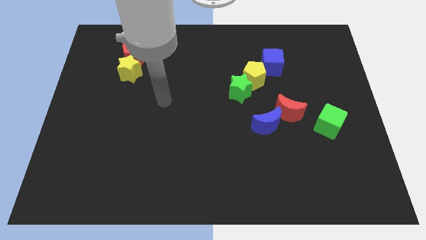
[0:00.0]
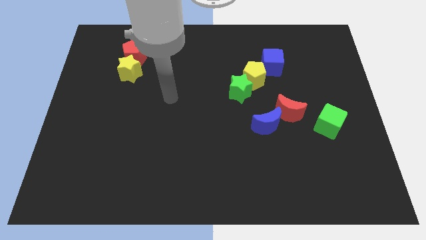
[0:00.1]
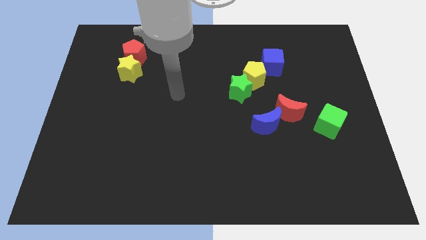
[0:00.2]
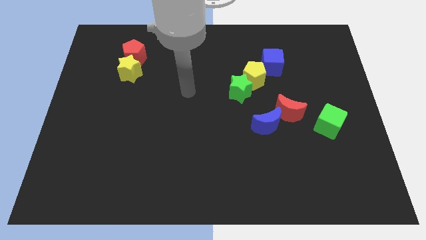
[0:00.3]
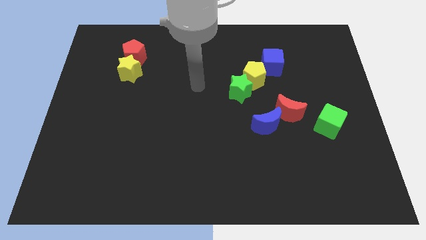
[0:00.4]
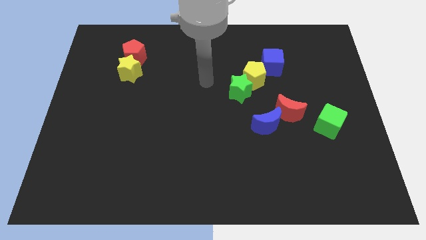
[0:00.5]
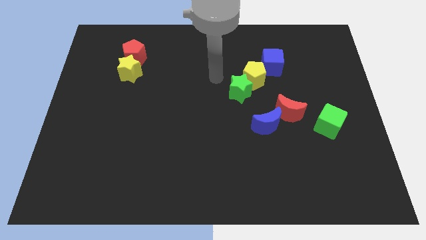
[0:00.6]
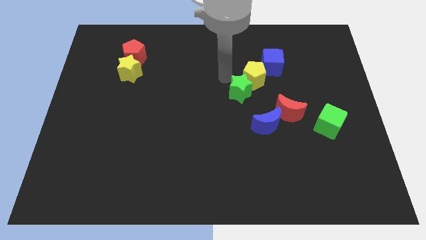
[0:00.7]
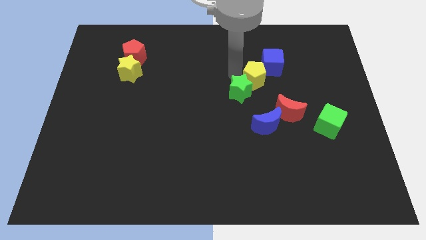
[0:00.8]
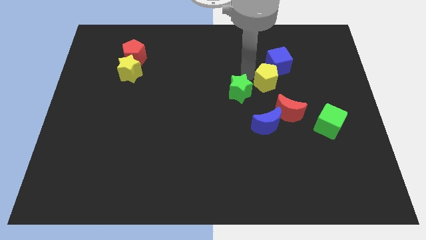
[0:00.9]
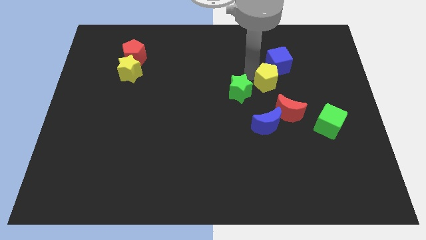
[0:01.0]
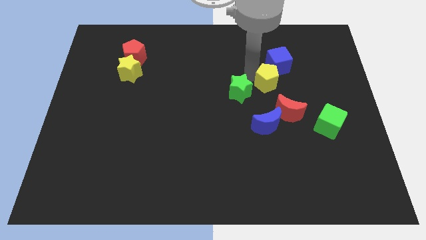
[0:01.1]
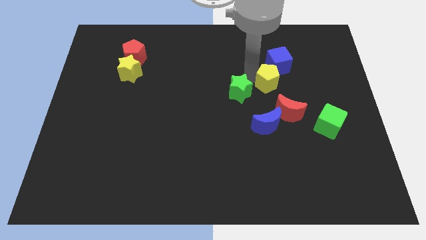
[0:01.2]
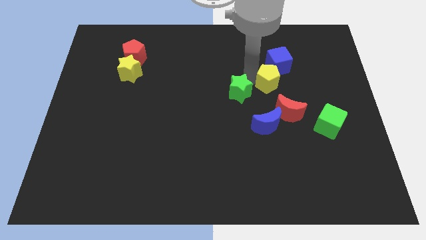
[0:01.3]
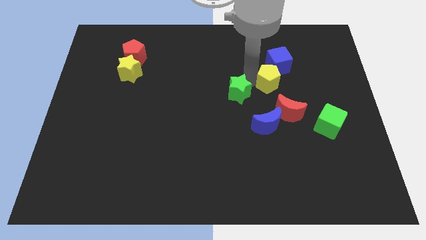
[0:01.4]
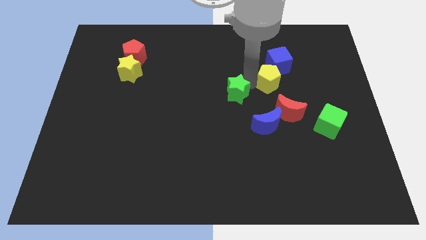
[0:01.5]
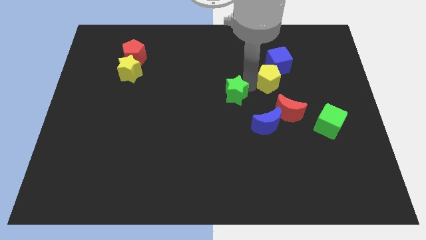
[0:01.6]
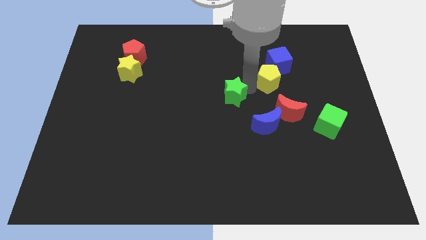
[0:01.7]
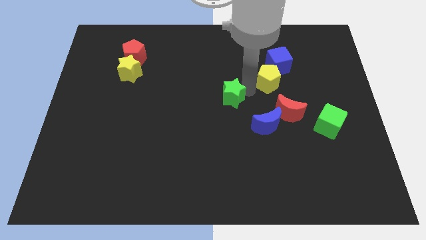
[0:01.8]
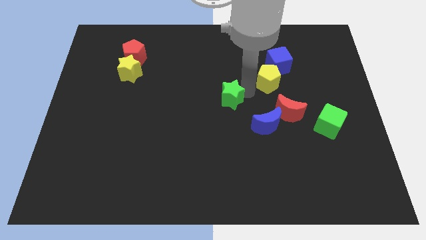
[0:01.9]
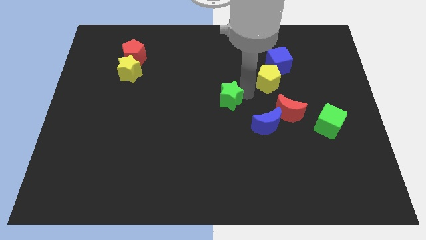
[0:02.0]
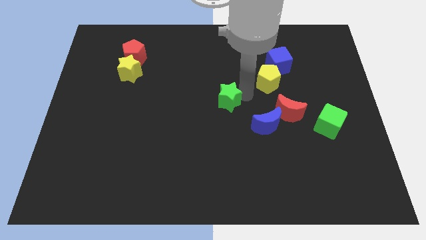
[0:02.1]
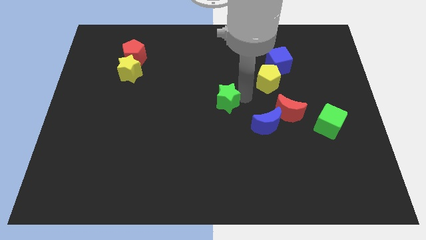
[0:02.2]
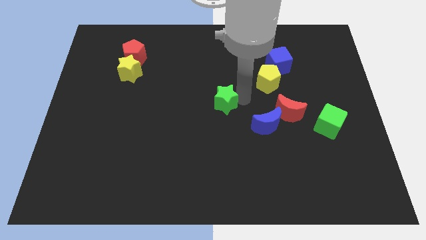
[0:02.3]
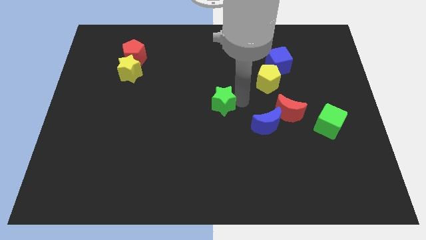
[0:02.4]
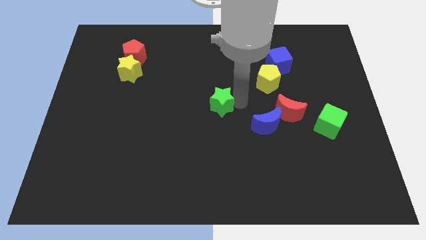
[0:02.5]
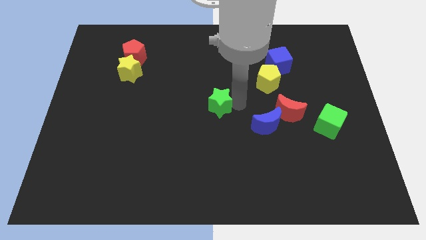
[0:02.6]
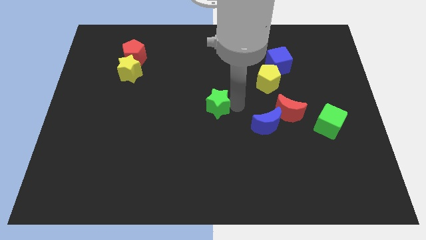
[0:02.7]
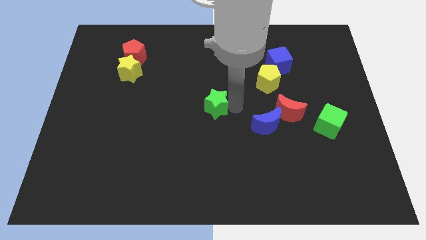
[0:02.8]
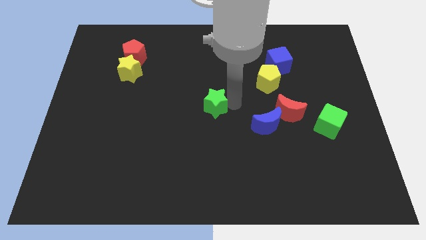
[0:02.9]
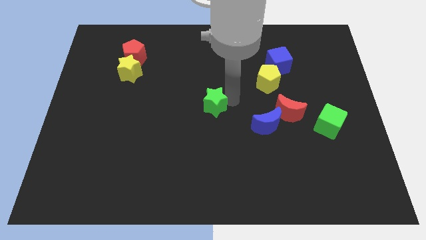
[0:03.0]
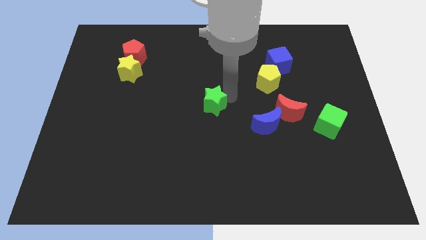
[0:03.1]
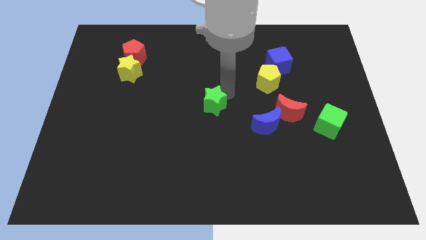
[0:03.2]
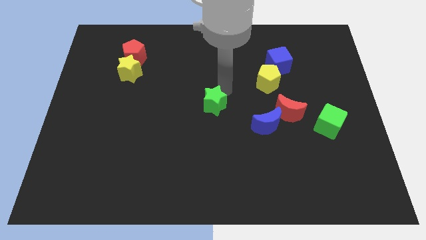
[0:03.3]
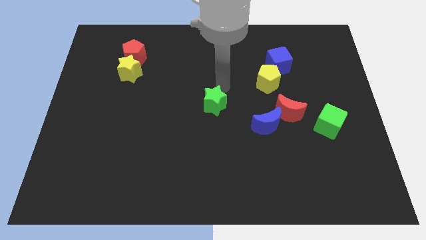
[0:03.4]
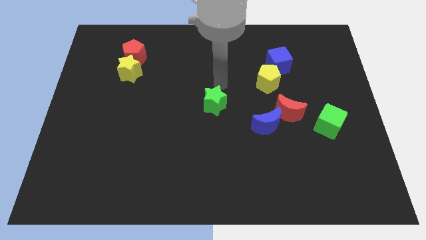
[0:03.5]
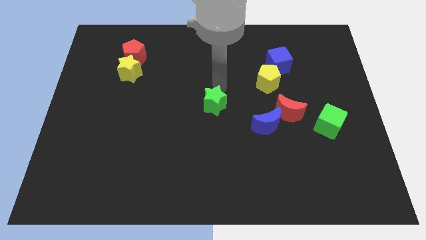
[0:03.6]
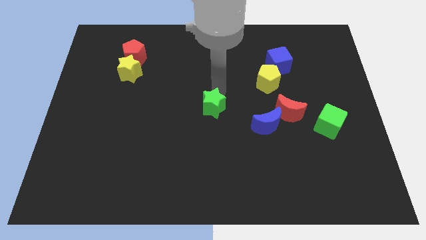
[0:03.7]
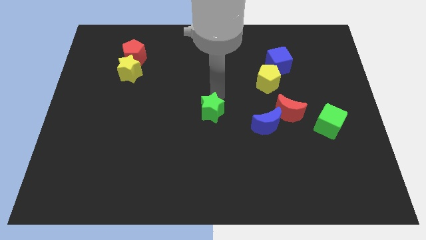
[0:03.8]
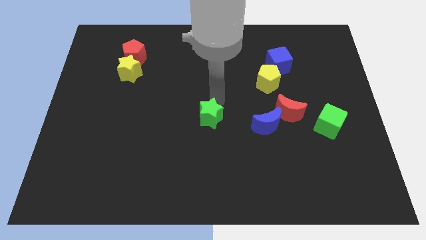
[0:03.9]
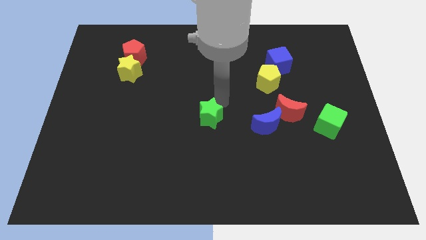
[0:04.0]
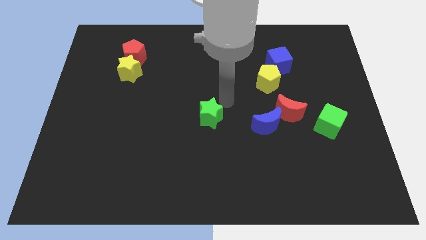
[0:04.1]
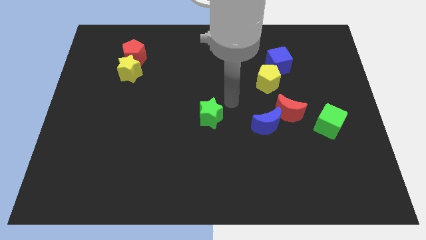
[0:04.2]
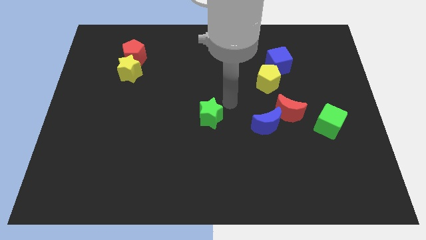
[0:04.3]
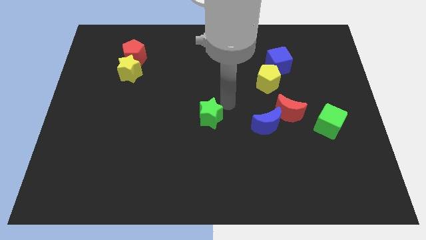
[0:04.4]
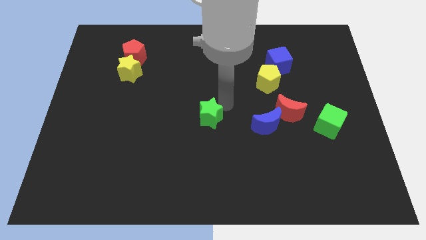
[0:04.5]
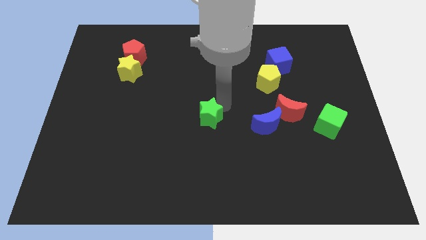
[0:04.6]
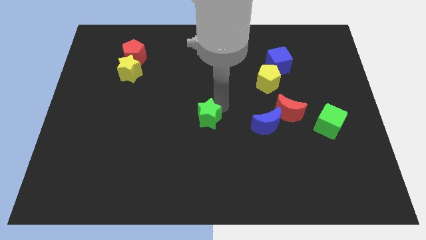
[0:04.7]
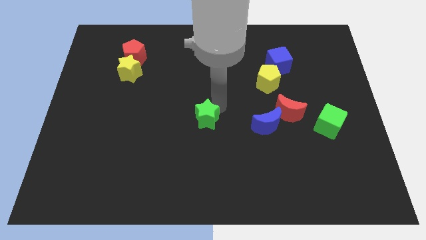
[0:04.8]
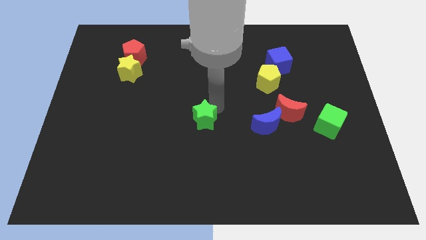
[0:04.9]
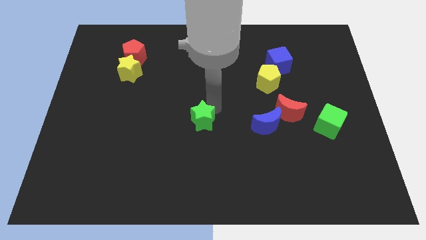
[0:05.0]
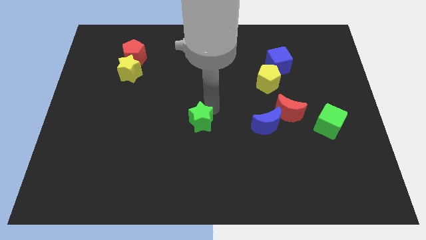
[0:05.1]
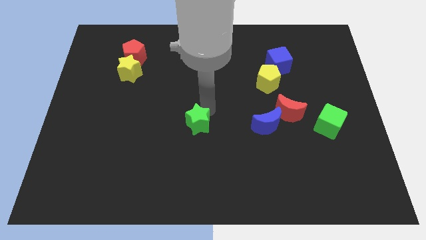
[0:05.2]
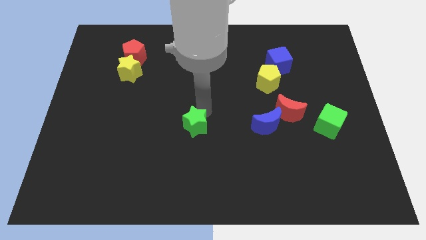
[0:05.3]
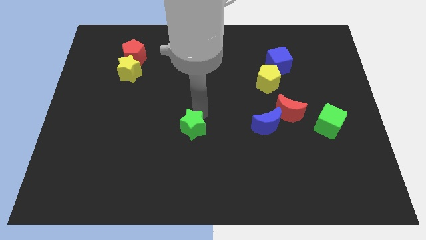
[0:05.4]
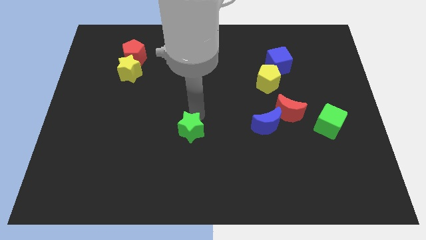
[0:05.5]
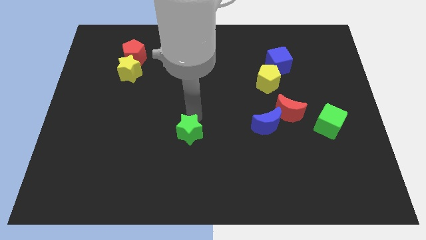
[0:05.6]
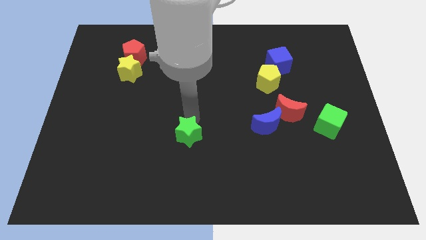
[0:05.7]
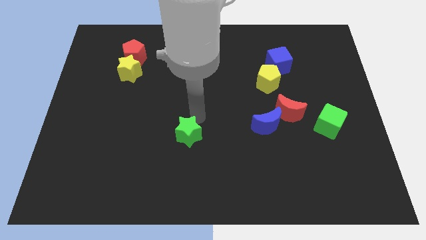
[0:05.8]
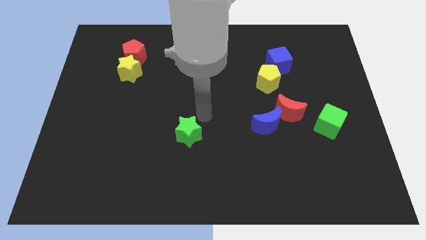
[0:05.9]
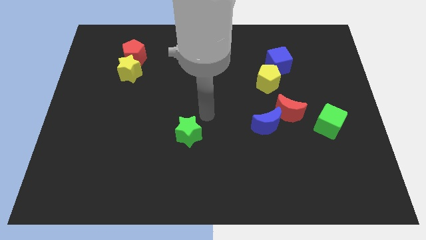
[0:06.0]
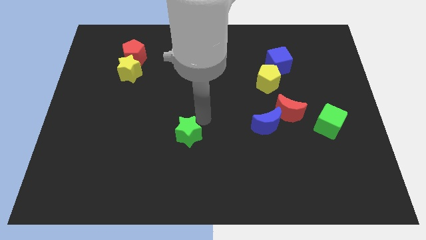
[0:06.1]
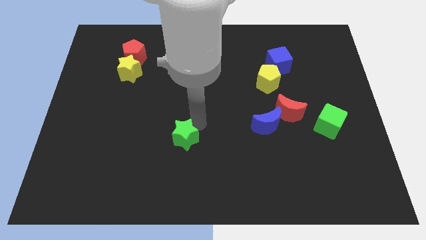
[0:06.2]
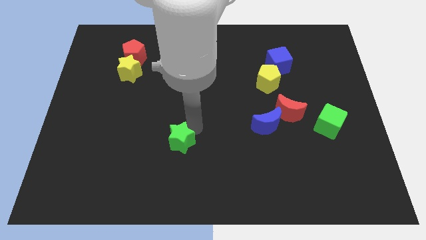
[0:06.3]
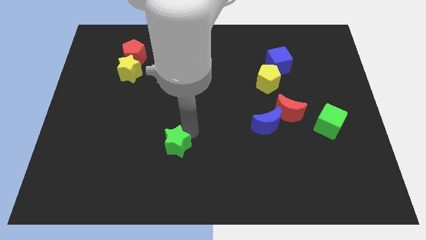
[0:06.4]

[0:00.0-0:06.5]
move the green star downwards and then left

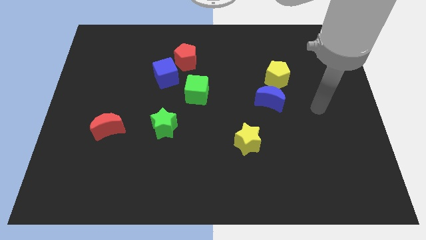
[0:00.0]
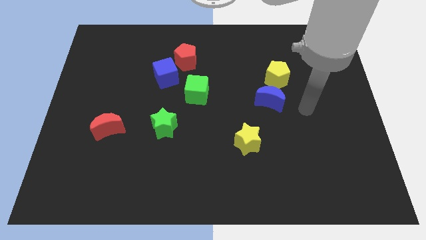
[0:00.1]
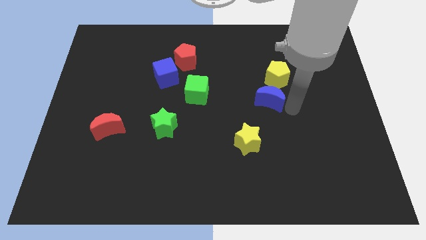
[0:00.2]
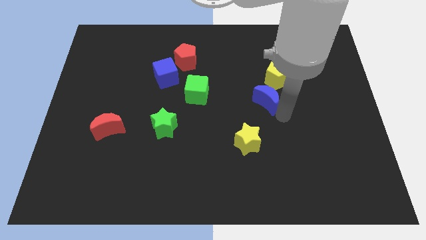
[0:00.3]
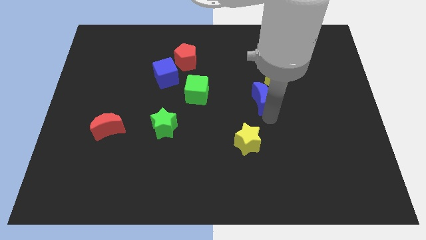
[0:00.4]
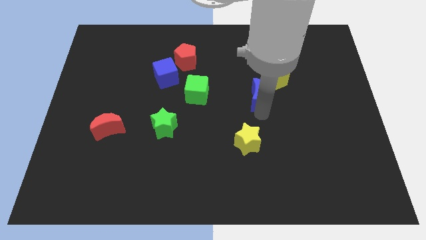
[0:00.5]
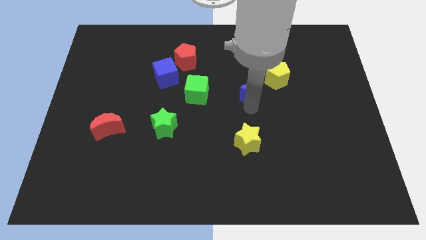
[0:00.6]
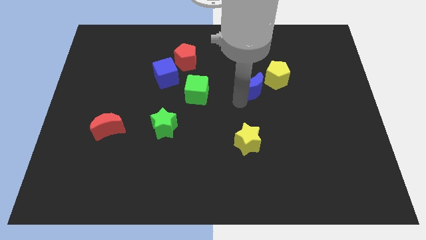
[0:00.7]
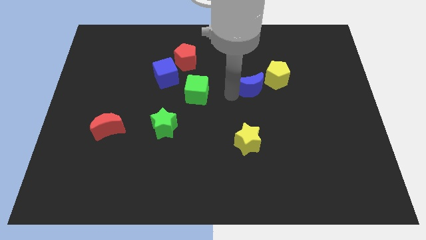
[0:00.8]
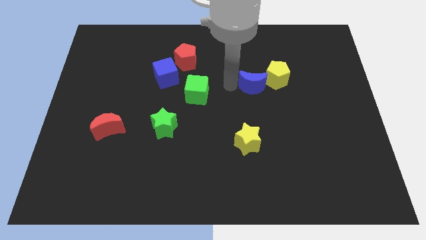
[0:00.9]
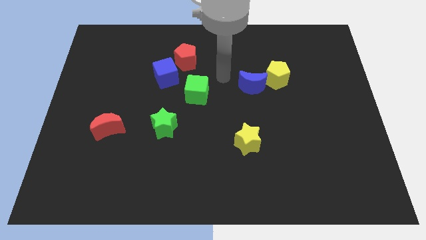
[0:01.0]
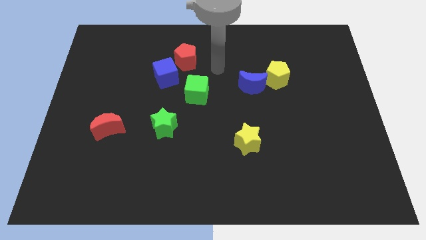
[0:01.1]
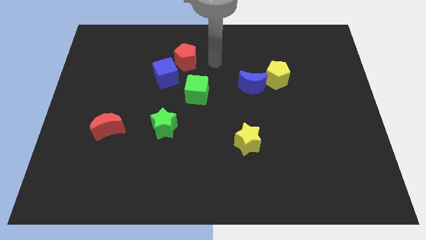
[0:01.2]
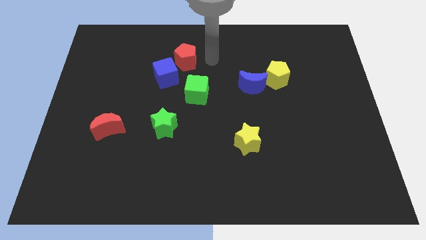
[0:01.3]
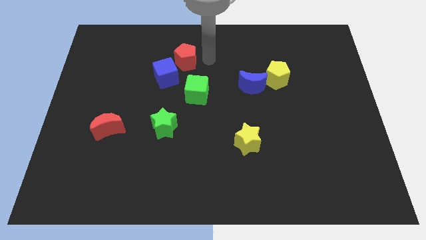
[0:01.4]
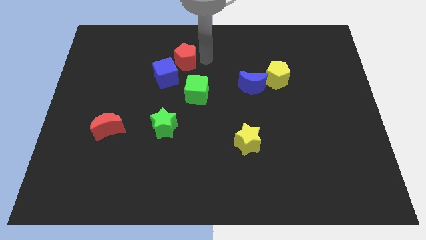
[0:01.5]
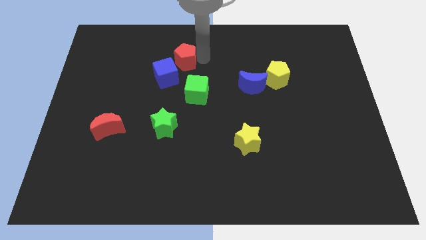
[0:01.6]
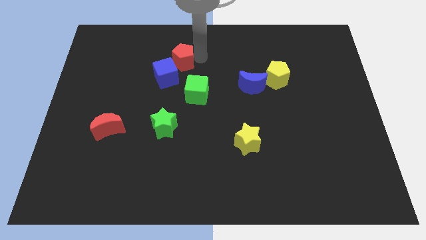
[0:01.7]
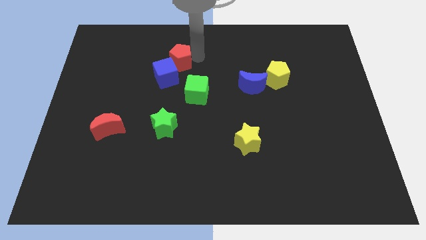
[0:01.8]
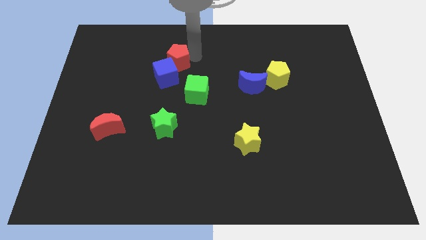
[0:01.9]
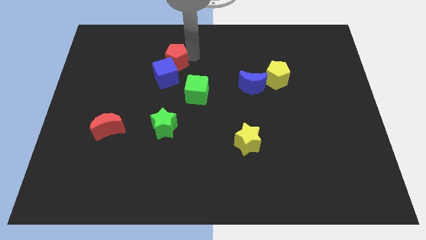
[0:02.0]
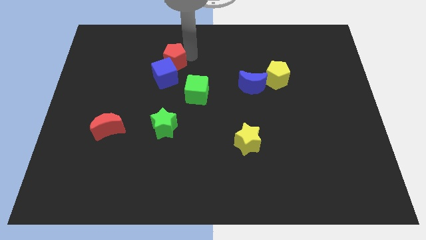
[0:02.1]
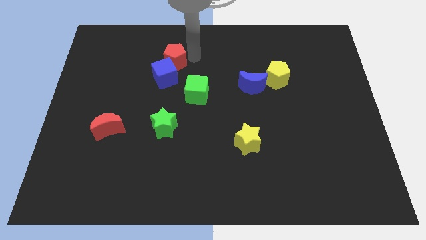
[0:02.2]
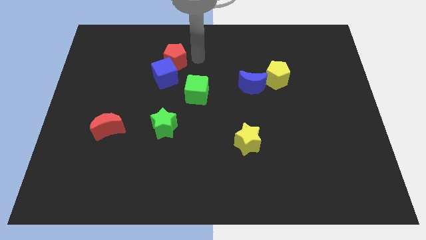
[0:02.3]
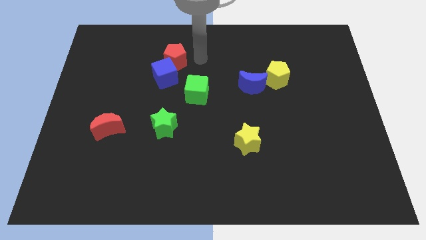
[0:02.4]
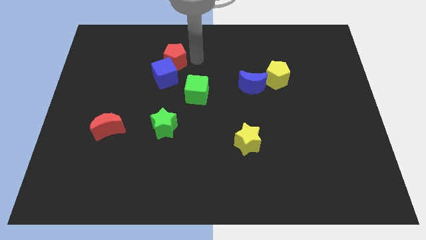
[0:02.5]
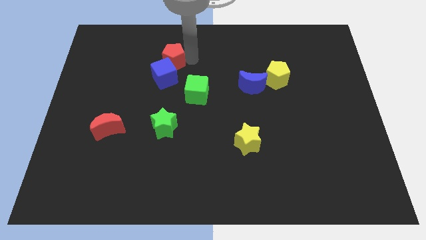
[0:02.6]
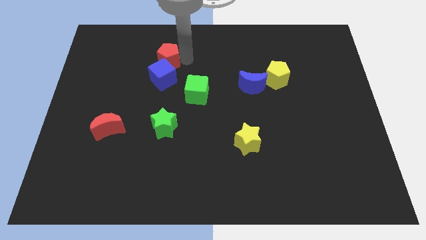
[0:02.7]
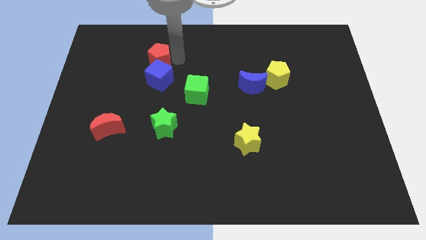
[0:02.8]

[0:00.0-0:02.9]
slide the red pentagon somewhat to the left
